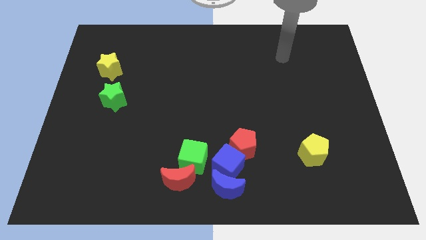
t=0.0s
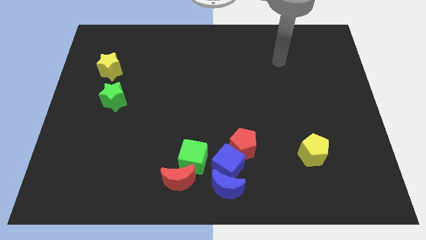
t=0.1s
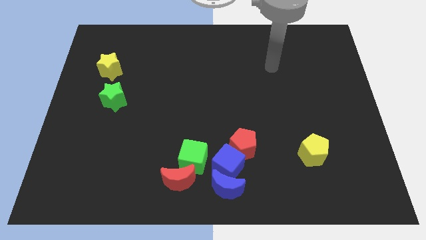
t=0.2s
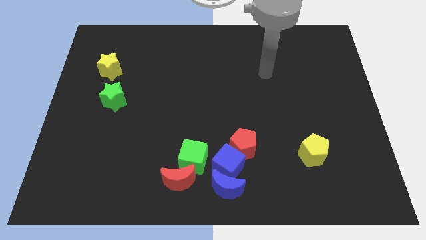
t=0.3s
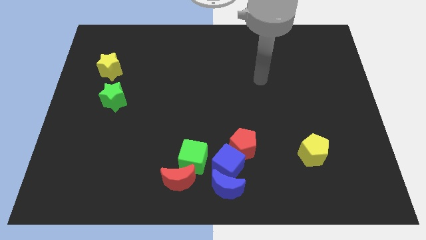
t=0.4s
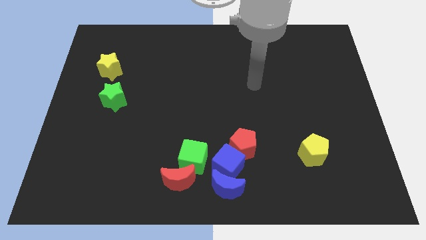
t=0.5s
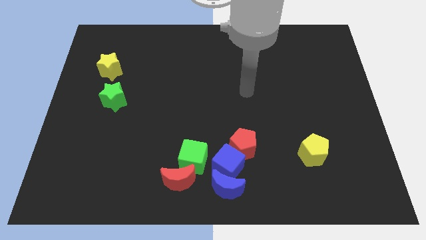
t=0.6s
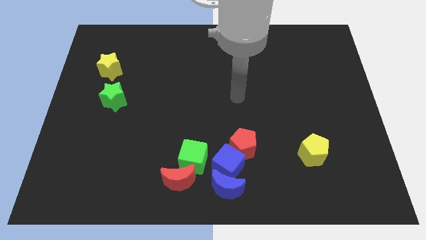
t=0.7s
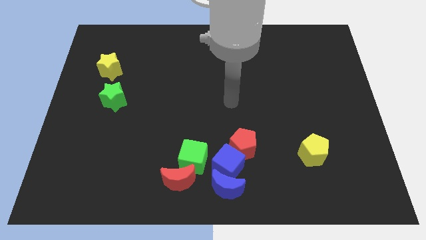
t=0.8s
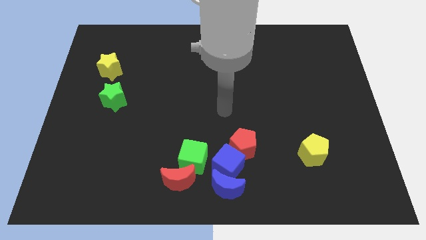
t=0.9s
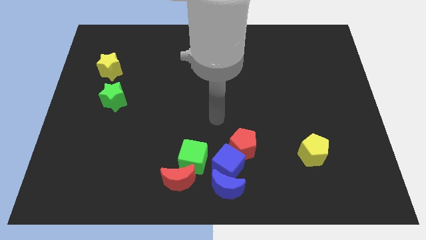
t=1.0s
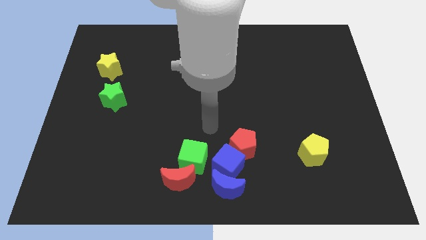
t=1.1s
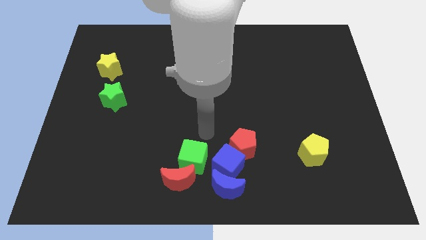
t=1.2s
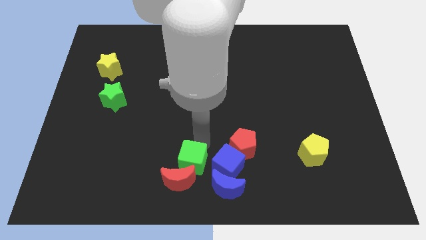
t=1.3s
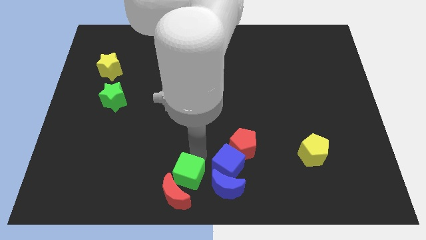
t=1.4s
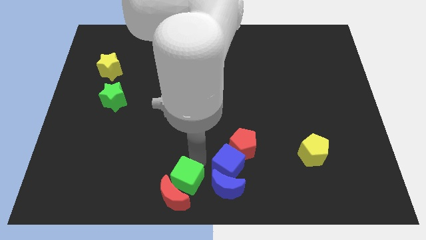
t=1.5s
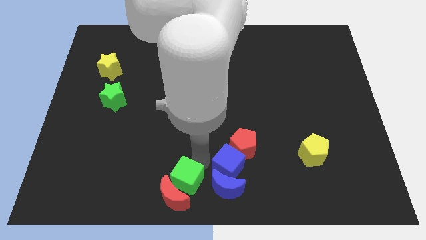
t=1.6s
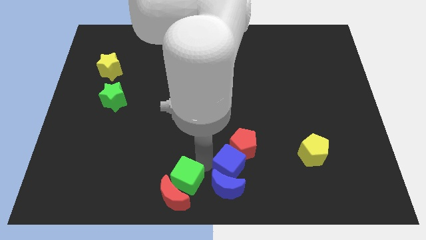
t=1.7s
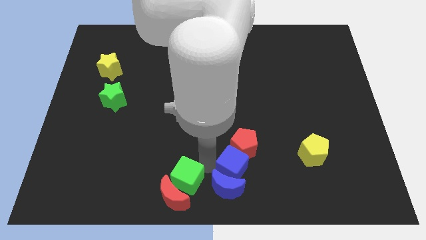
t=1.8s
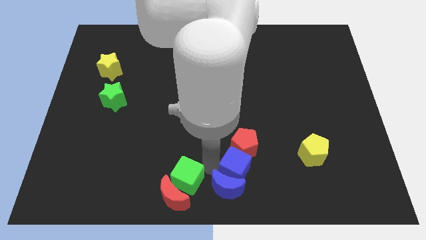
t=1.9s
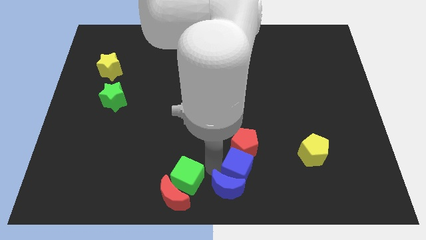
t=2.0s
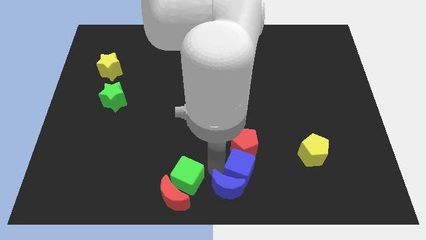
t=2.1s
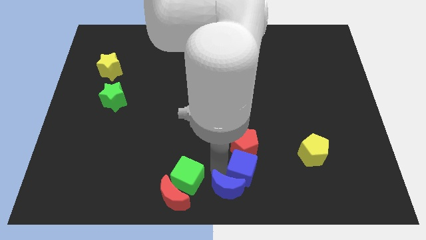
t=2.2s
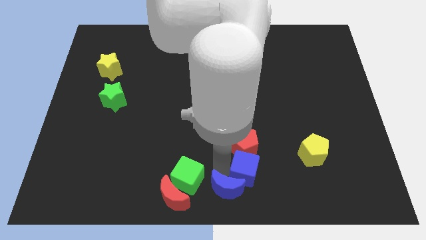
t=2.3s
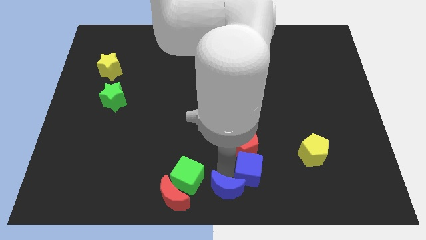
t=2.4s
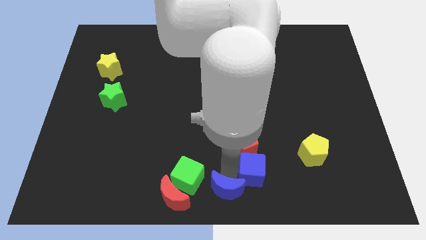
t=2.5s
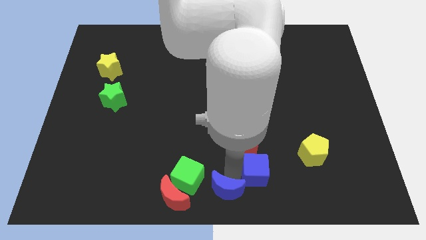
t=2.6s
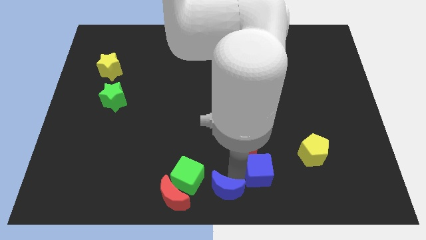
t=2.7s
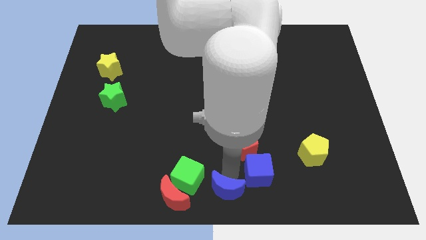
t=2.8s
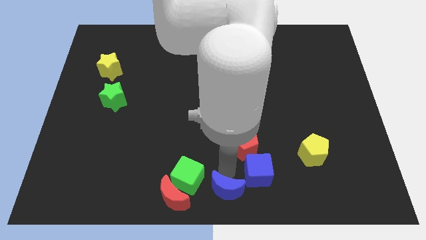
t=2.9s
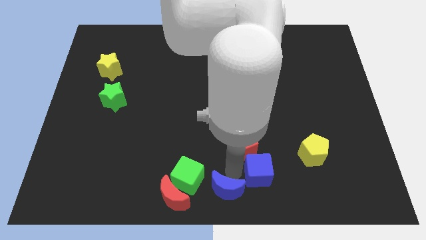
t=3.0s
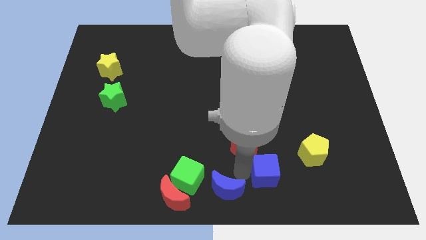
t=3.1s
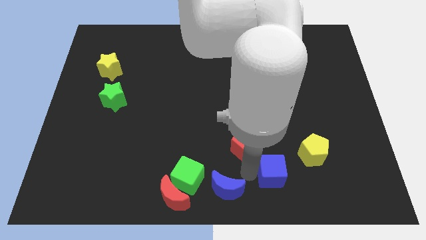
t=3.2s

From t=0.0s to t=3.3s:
separate the blue cube from the blue moon, red pentagon, and green cube

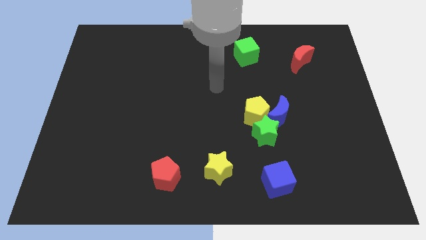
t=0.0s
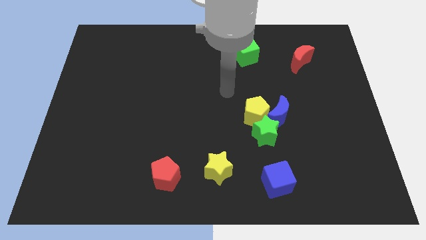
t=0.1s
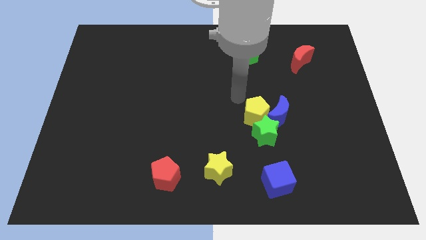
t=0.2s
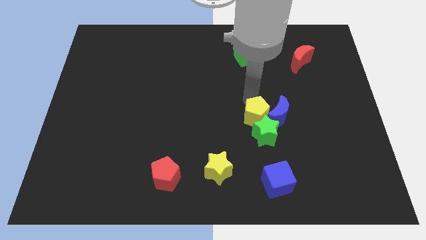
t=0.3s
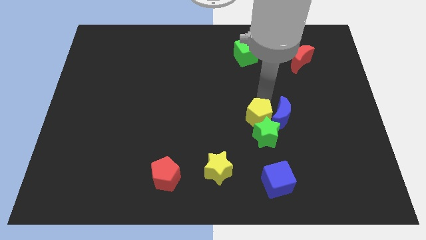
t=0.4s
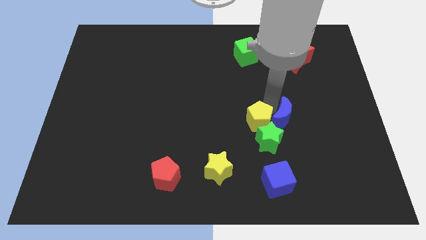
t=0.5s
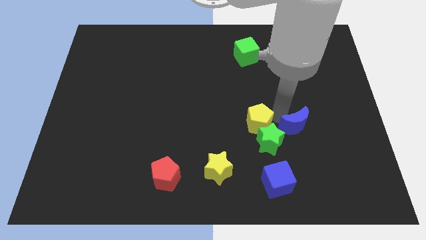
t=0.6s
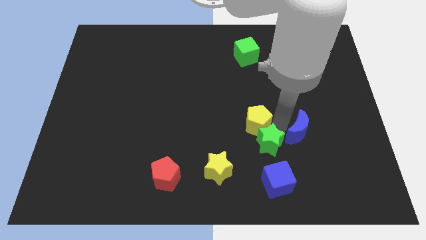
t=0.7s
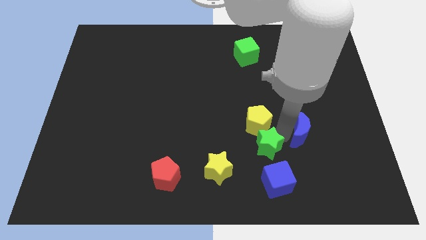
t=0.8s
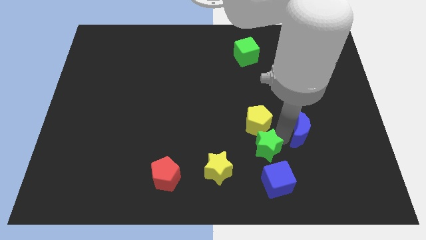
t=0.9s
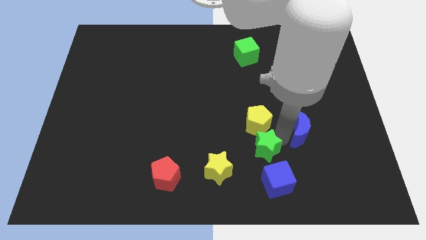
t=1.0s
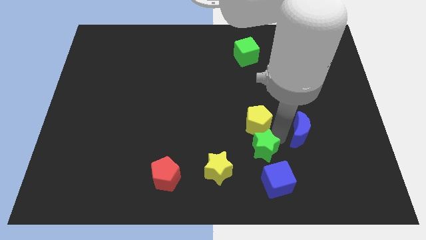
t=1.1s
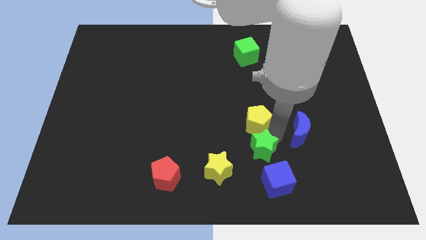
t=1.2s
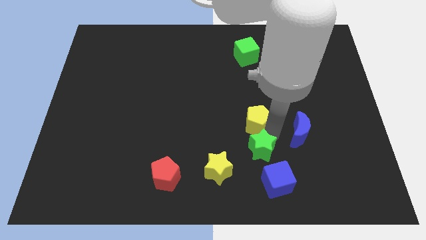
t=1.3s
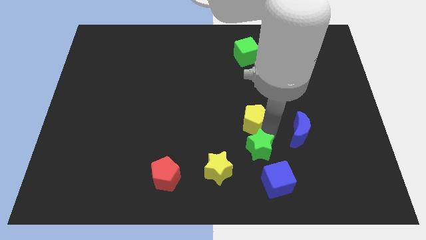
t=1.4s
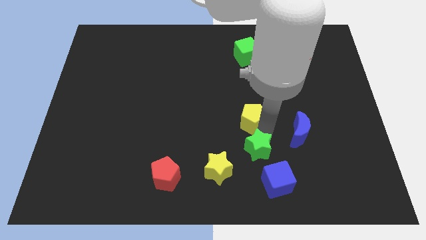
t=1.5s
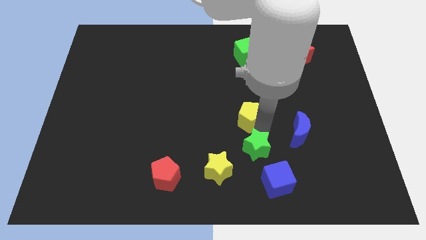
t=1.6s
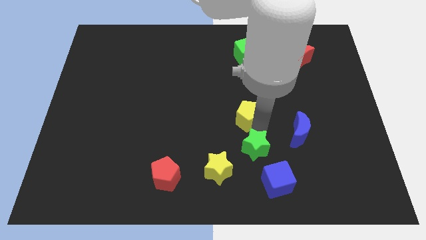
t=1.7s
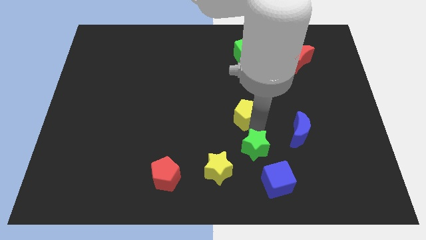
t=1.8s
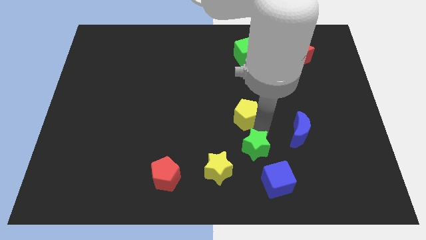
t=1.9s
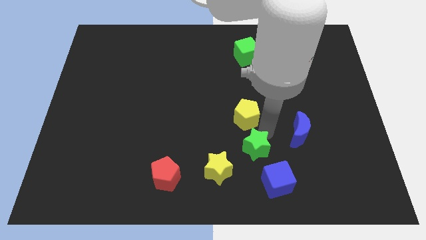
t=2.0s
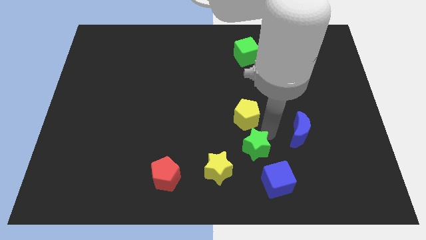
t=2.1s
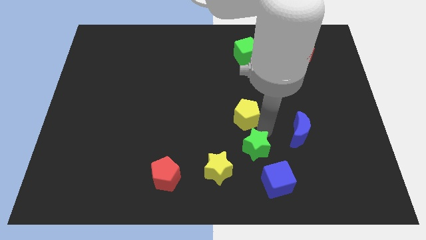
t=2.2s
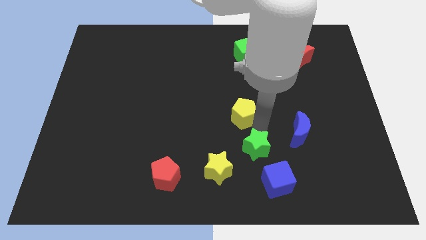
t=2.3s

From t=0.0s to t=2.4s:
separate the yellow pentagon from the blue moon and green star

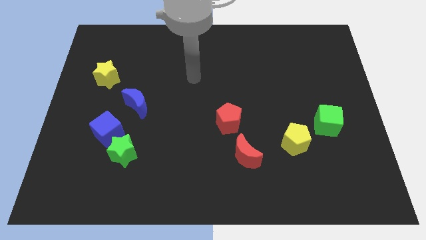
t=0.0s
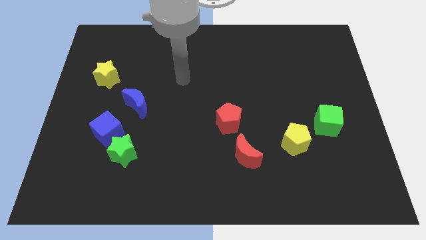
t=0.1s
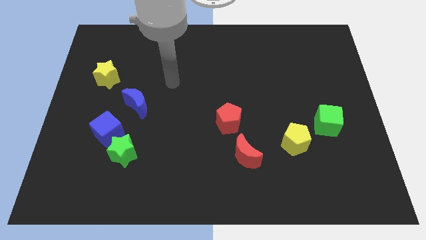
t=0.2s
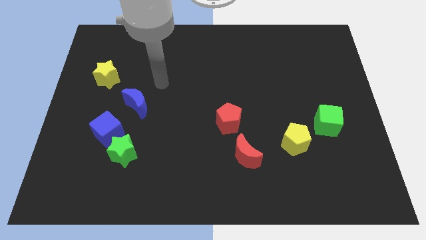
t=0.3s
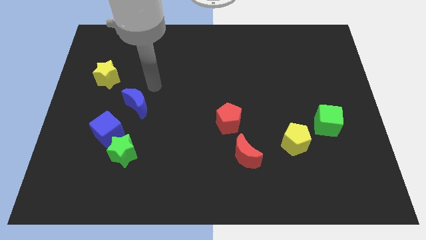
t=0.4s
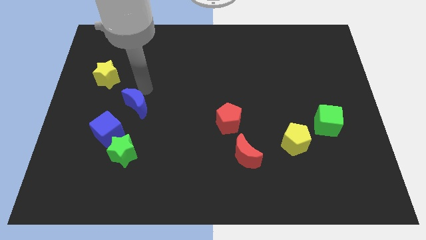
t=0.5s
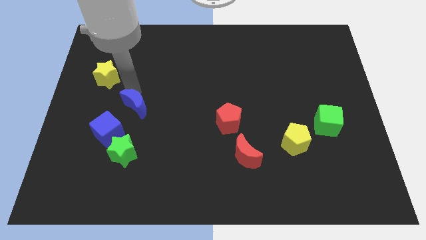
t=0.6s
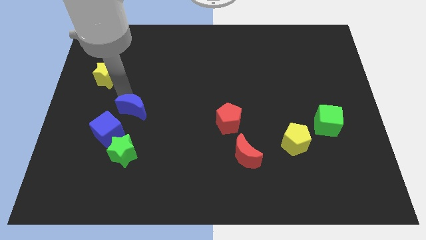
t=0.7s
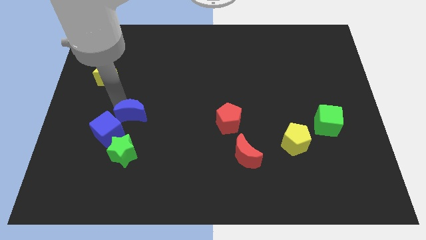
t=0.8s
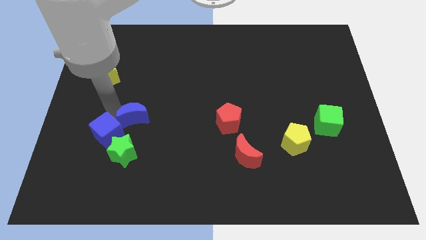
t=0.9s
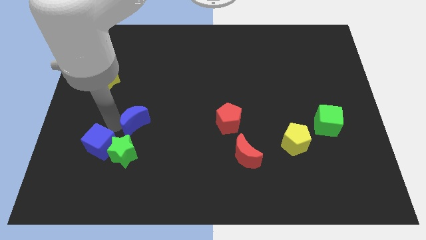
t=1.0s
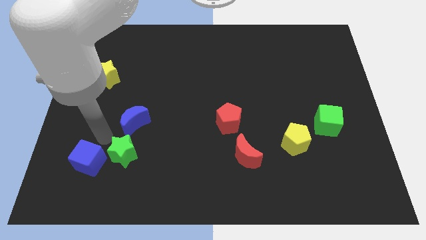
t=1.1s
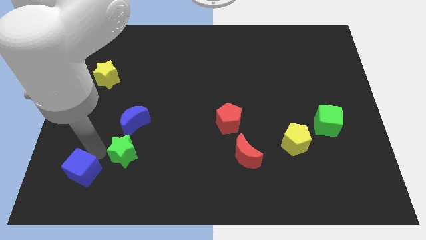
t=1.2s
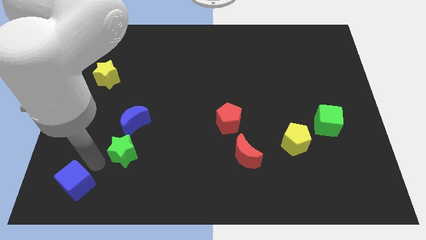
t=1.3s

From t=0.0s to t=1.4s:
separate the green star from the blue cube

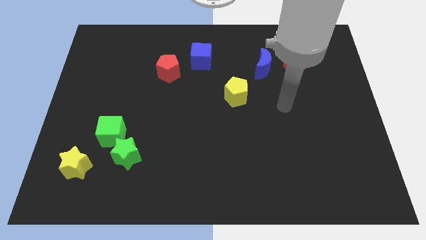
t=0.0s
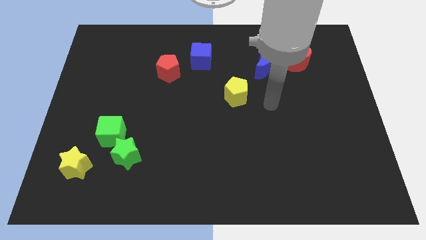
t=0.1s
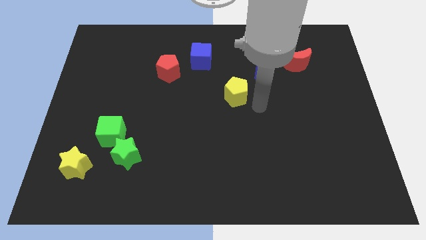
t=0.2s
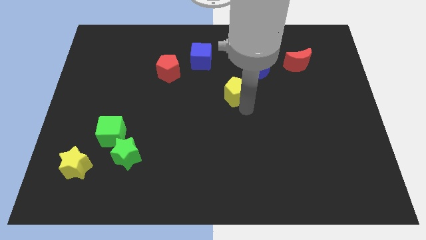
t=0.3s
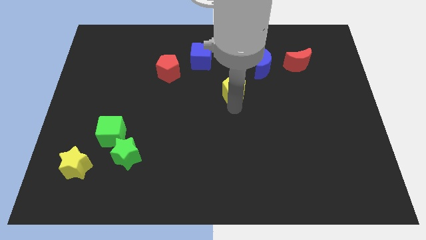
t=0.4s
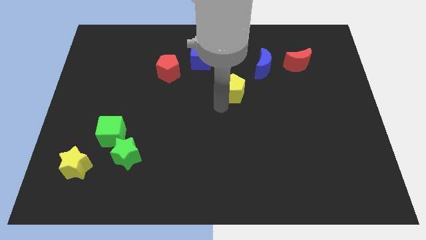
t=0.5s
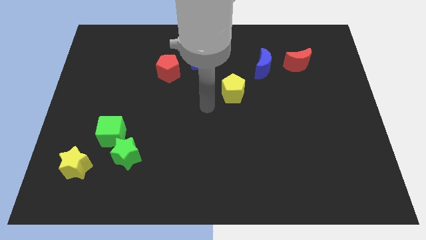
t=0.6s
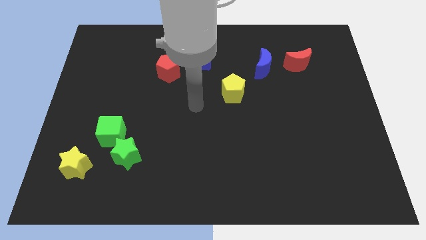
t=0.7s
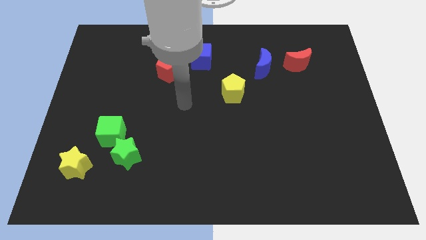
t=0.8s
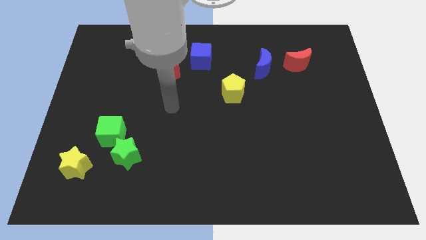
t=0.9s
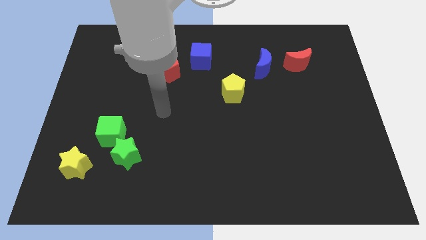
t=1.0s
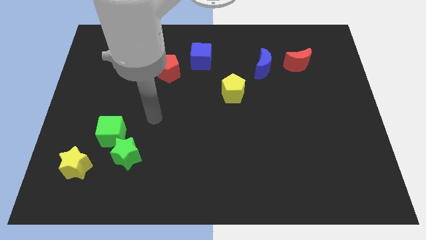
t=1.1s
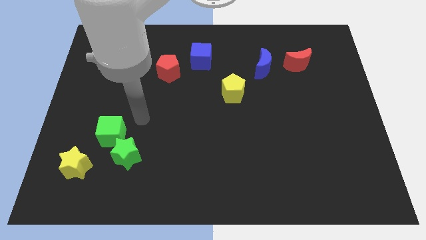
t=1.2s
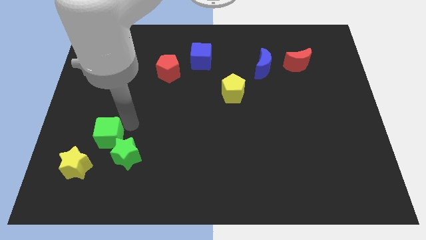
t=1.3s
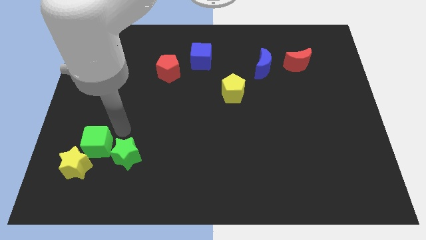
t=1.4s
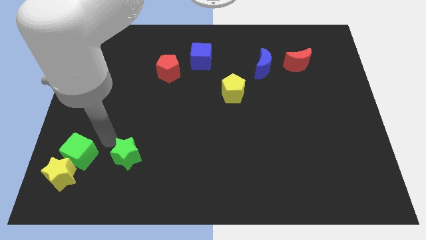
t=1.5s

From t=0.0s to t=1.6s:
separate the green star from the green cube

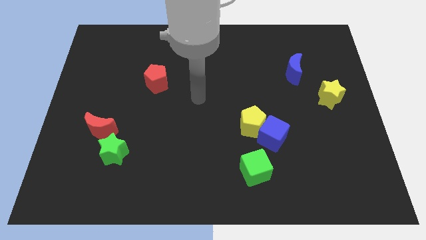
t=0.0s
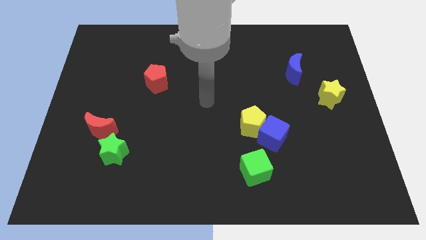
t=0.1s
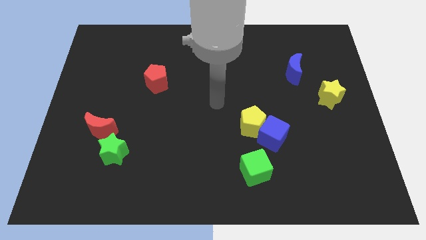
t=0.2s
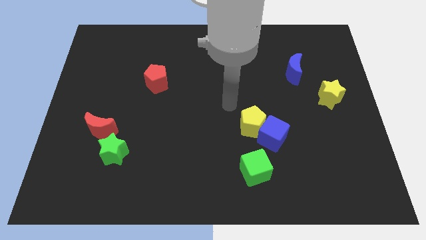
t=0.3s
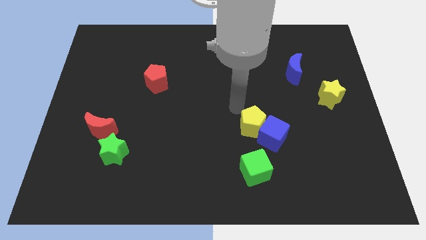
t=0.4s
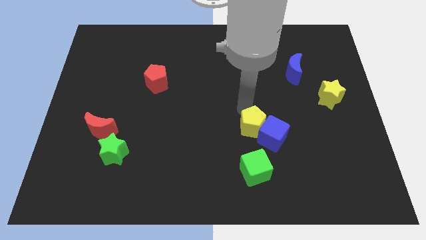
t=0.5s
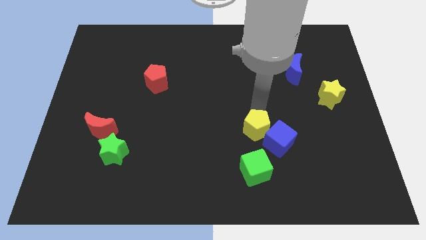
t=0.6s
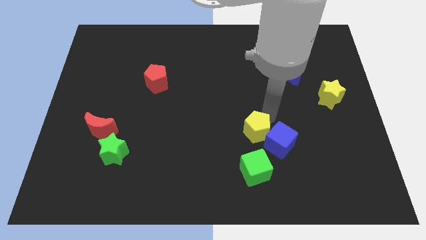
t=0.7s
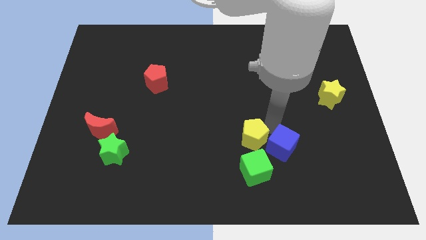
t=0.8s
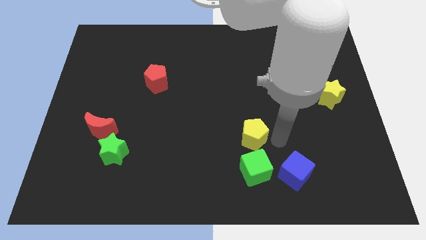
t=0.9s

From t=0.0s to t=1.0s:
move the yellow pentagon away from the blue cube
